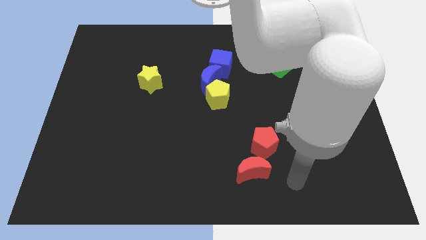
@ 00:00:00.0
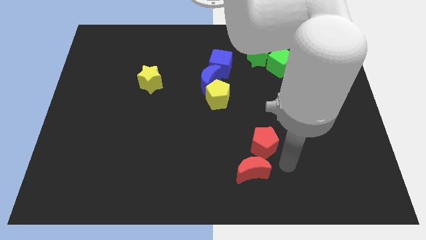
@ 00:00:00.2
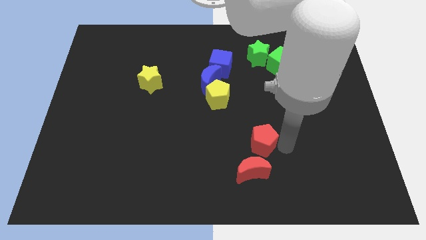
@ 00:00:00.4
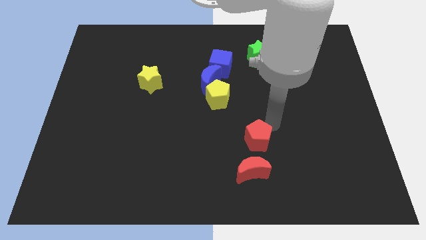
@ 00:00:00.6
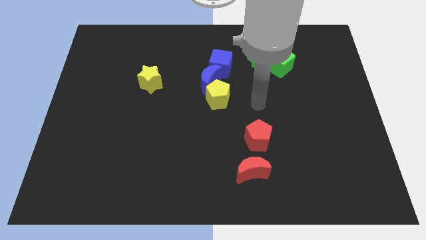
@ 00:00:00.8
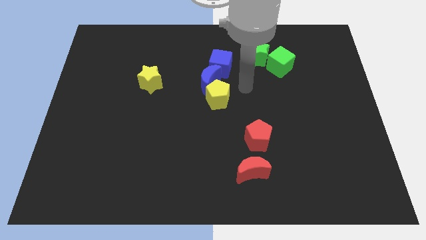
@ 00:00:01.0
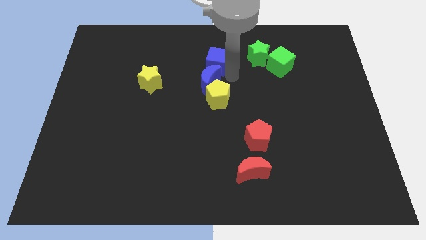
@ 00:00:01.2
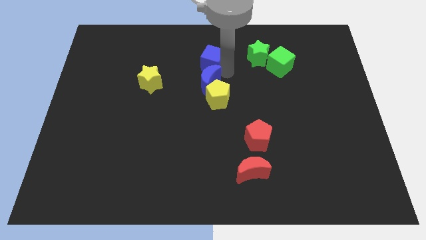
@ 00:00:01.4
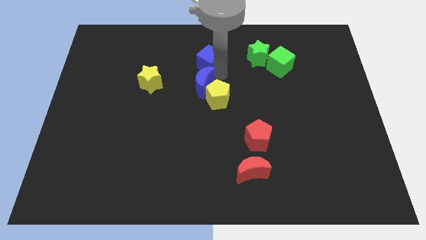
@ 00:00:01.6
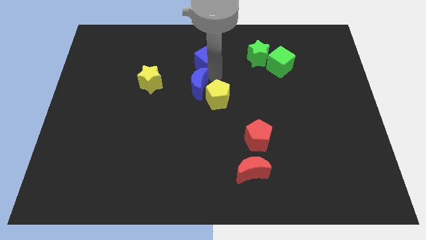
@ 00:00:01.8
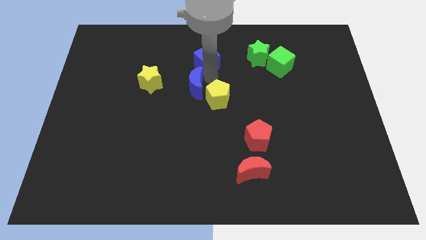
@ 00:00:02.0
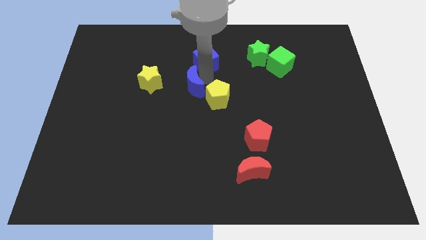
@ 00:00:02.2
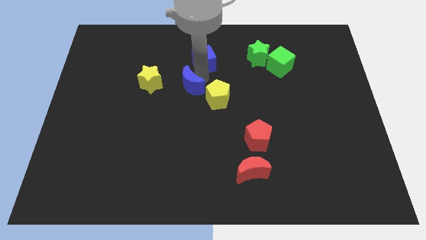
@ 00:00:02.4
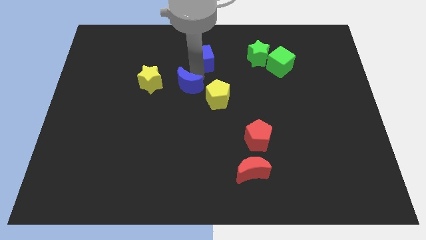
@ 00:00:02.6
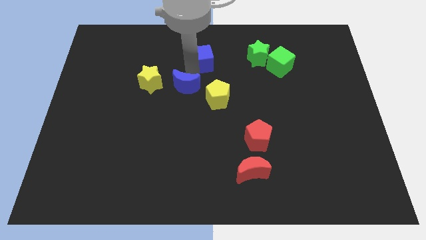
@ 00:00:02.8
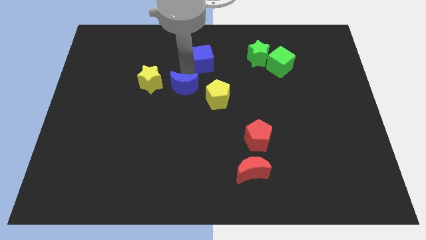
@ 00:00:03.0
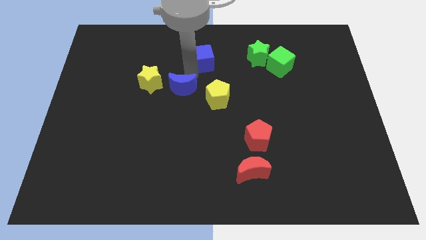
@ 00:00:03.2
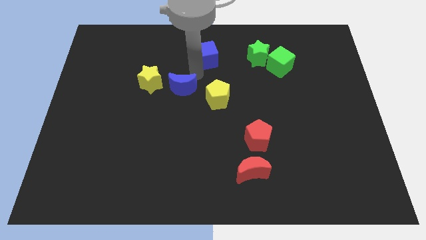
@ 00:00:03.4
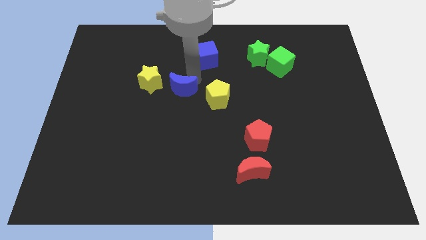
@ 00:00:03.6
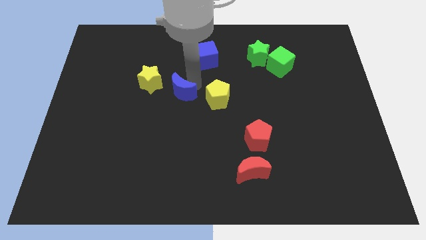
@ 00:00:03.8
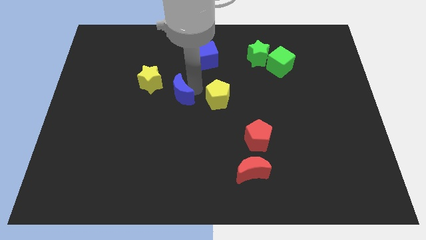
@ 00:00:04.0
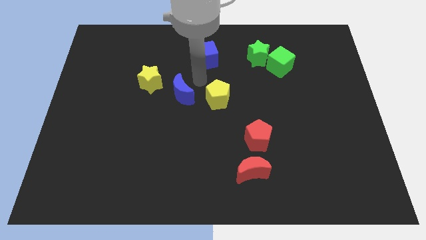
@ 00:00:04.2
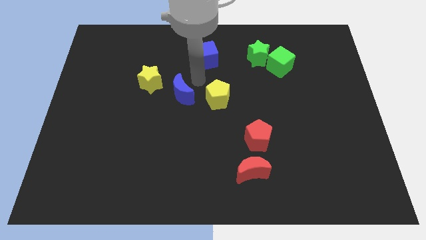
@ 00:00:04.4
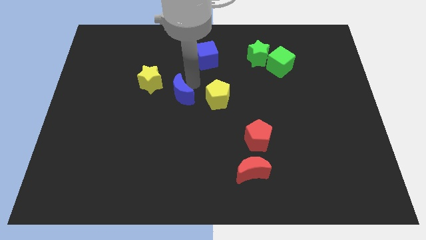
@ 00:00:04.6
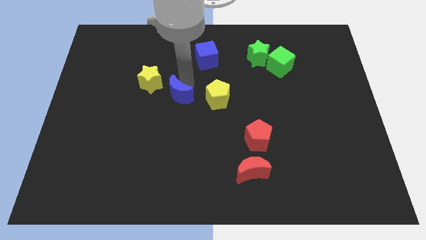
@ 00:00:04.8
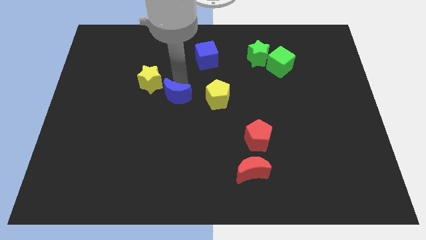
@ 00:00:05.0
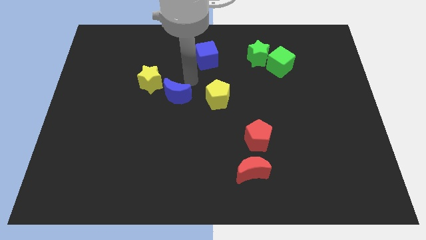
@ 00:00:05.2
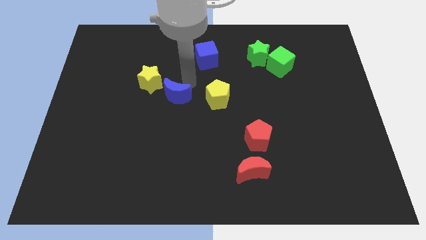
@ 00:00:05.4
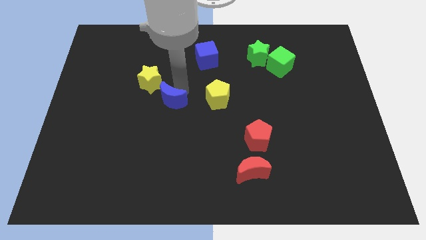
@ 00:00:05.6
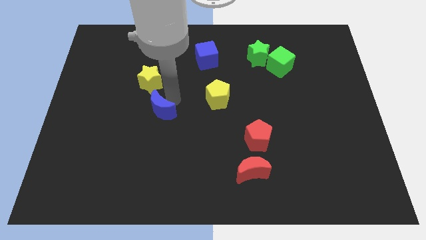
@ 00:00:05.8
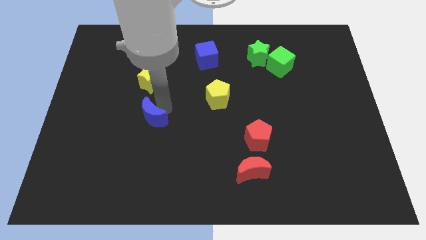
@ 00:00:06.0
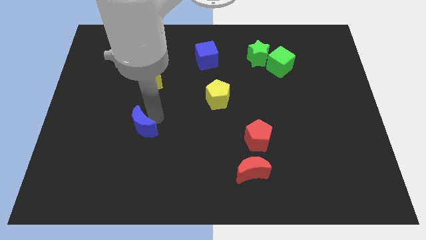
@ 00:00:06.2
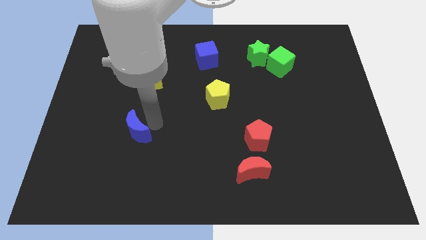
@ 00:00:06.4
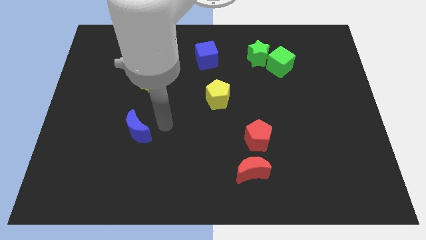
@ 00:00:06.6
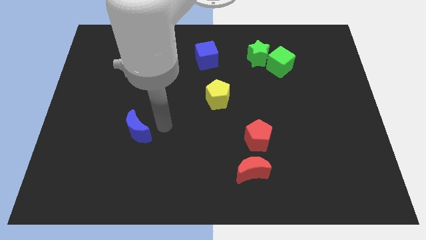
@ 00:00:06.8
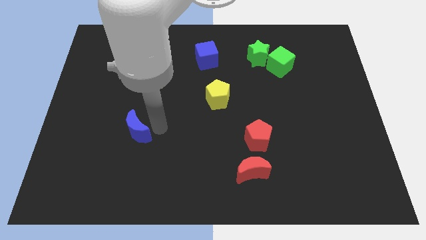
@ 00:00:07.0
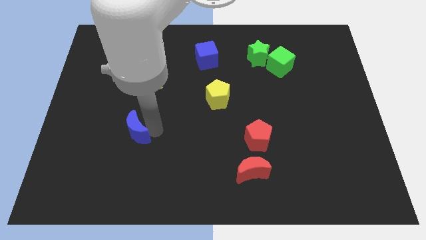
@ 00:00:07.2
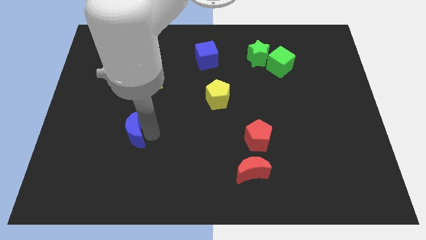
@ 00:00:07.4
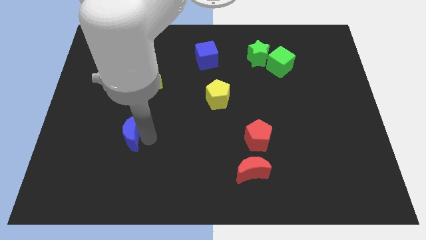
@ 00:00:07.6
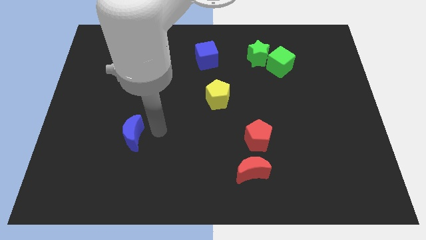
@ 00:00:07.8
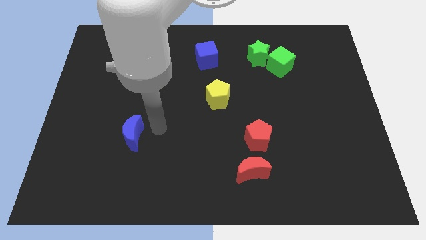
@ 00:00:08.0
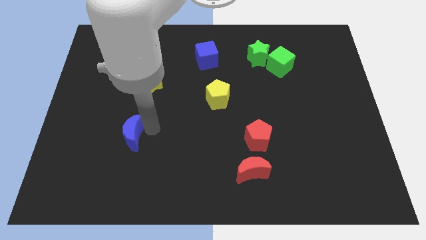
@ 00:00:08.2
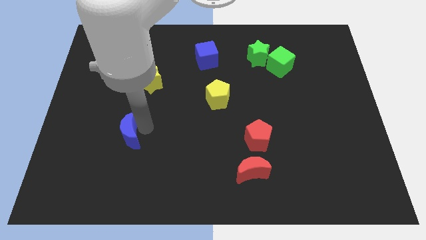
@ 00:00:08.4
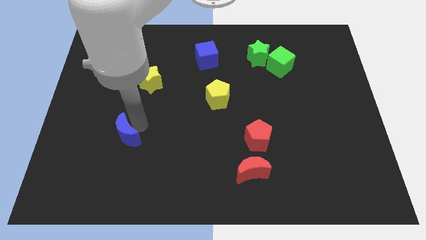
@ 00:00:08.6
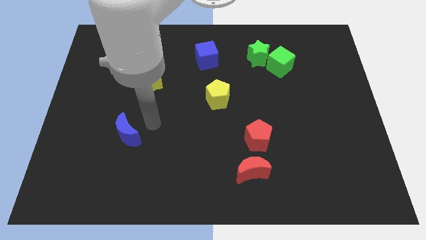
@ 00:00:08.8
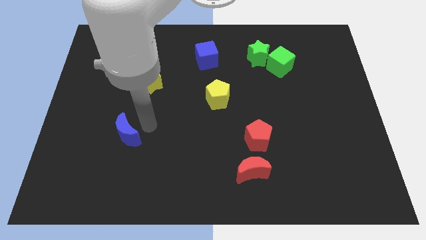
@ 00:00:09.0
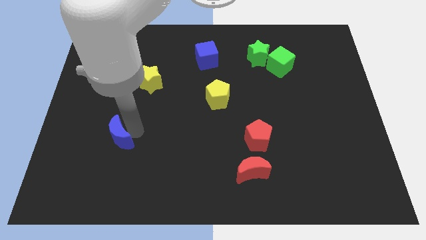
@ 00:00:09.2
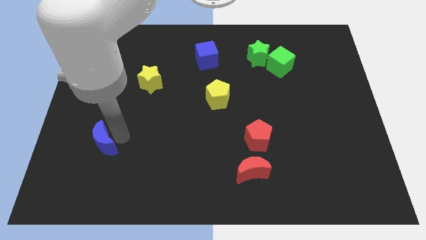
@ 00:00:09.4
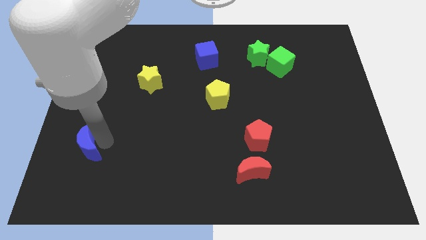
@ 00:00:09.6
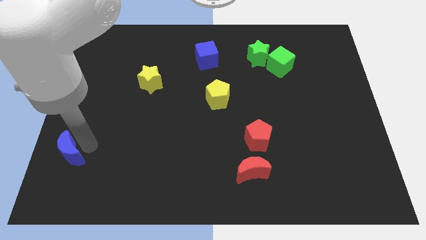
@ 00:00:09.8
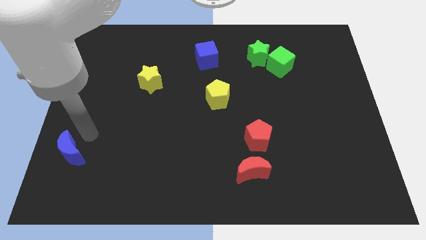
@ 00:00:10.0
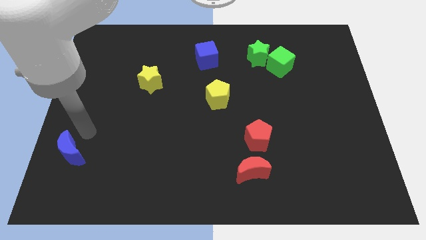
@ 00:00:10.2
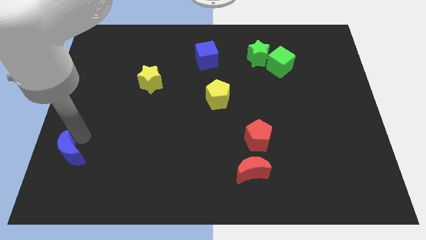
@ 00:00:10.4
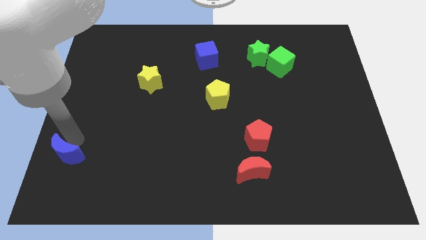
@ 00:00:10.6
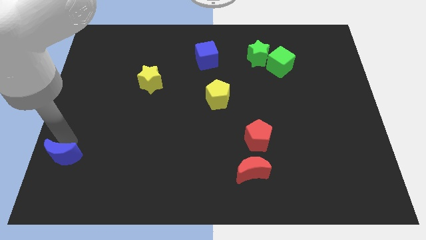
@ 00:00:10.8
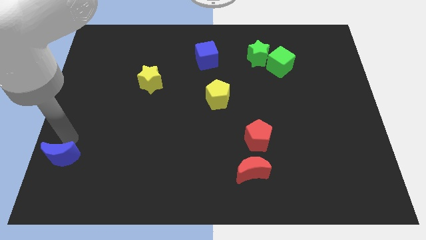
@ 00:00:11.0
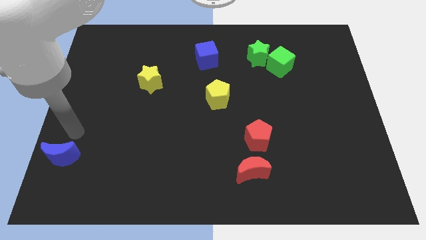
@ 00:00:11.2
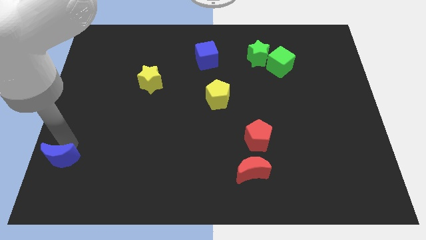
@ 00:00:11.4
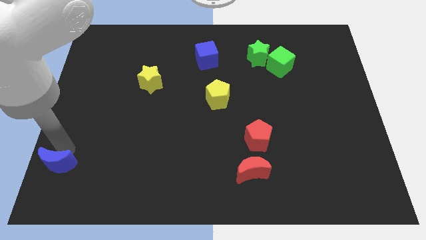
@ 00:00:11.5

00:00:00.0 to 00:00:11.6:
slide the blue moon to the bottom left of the board
